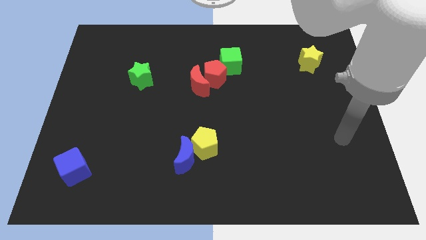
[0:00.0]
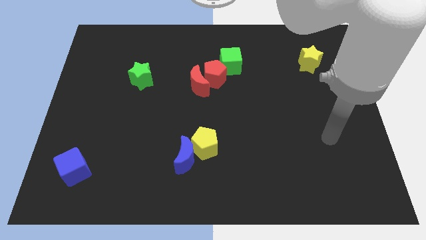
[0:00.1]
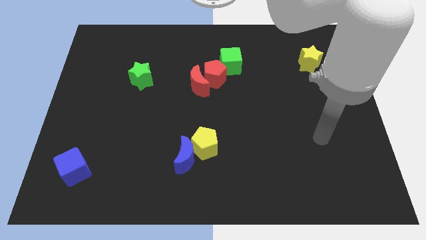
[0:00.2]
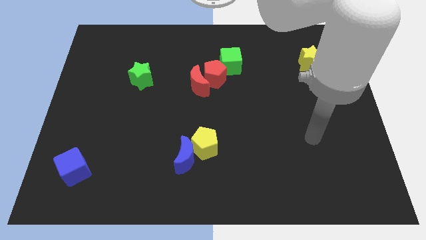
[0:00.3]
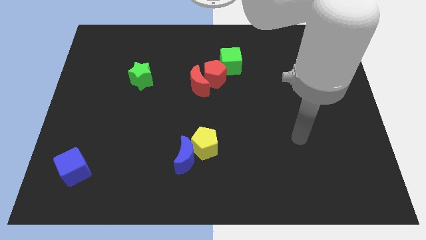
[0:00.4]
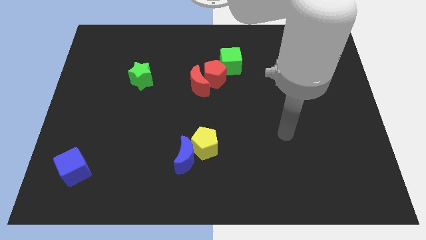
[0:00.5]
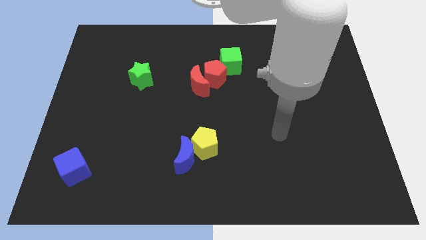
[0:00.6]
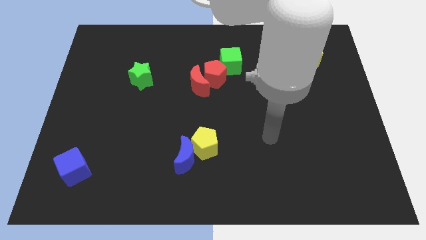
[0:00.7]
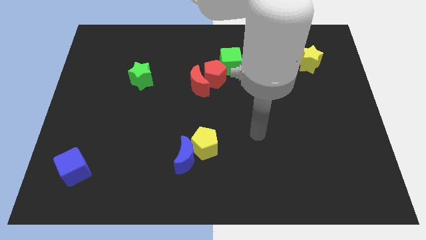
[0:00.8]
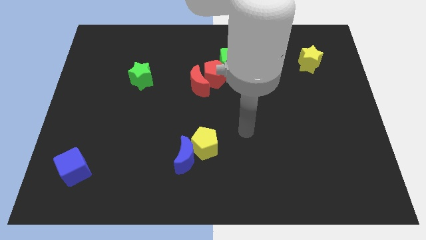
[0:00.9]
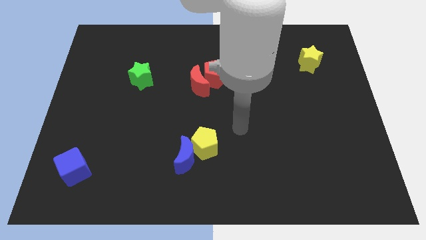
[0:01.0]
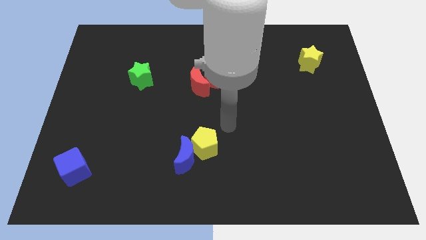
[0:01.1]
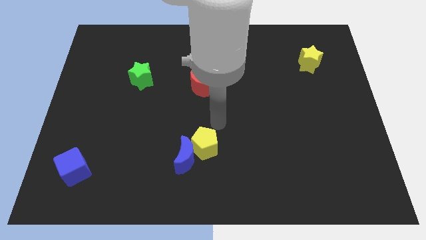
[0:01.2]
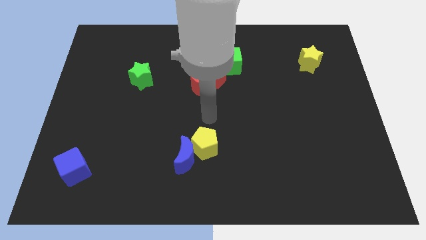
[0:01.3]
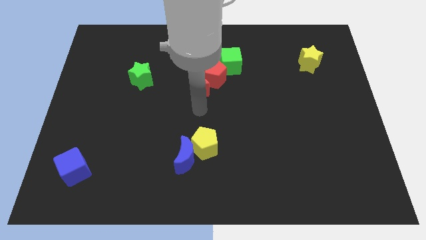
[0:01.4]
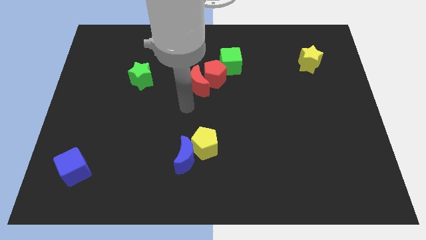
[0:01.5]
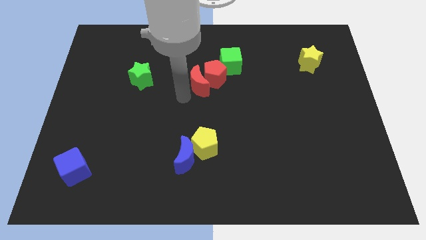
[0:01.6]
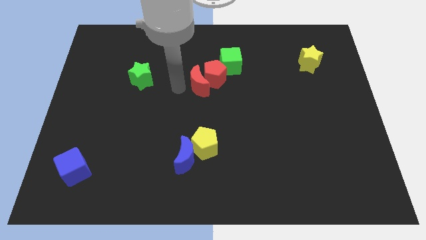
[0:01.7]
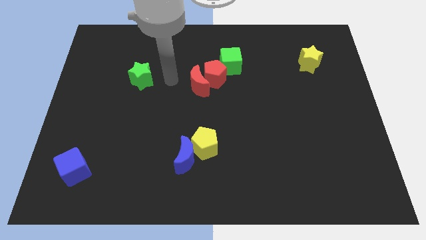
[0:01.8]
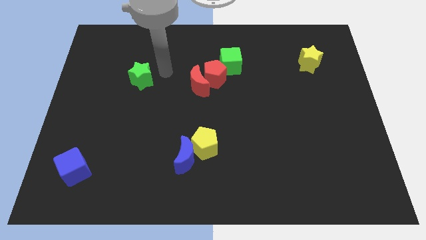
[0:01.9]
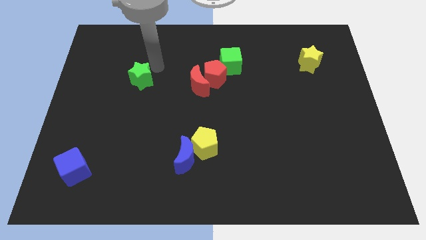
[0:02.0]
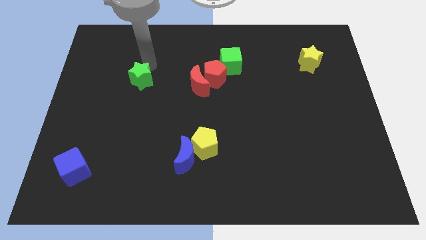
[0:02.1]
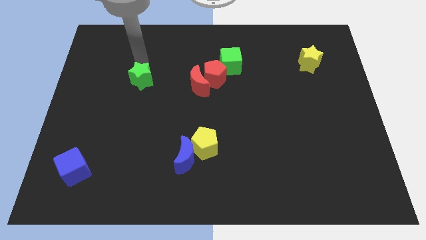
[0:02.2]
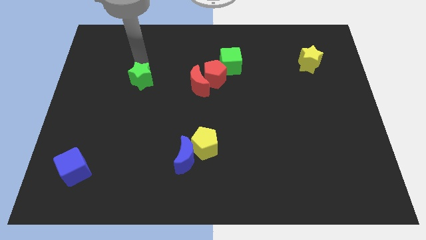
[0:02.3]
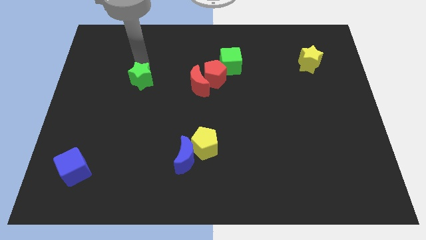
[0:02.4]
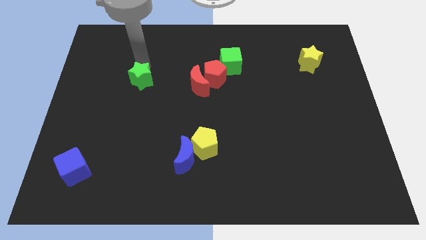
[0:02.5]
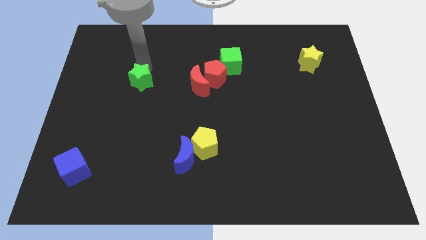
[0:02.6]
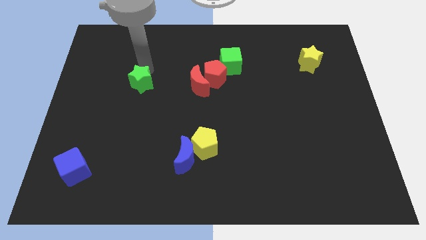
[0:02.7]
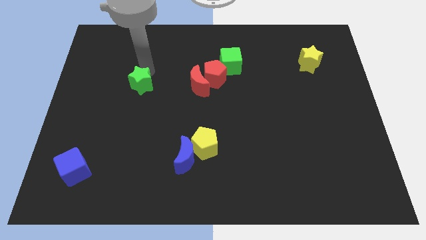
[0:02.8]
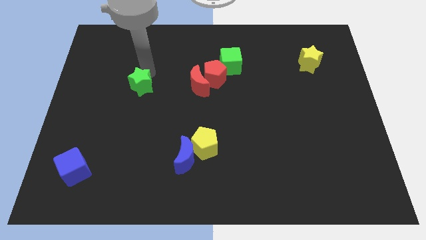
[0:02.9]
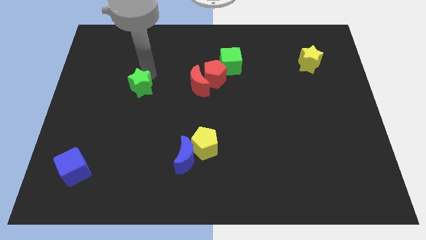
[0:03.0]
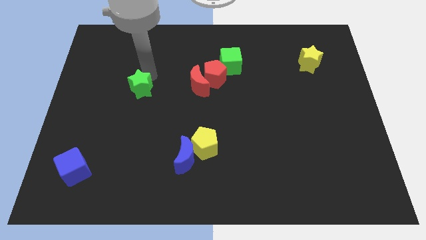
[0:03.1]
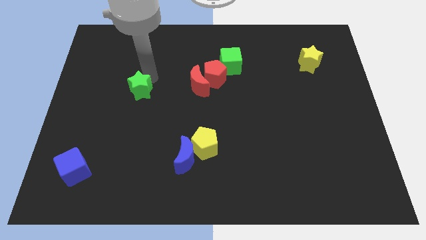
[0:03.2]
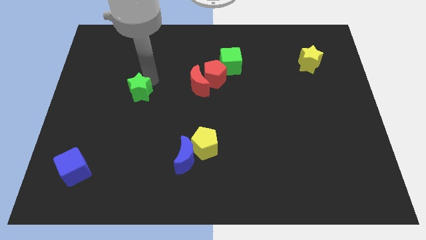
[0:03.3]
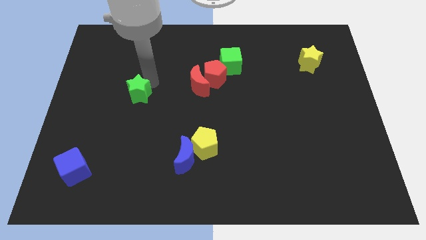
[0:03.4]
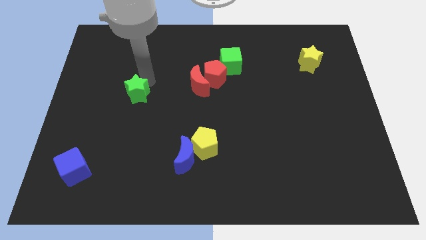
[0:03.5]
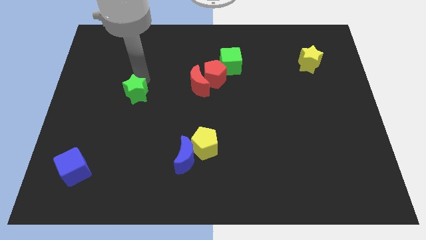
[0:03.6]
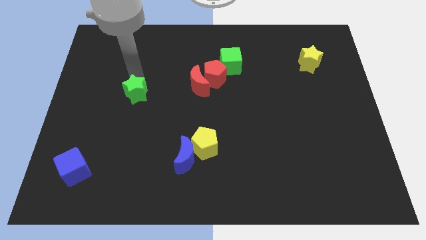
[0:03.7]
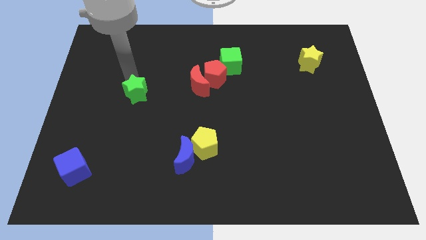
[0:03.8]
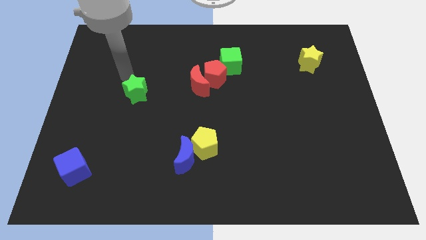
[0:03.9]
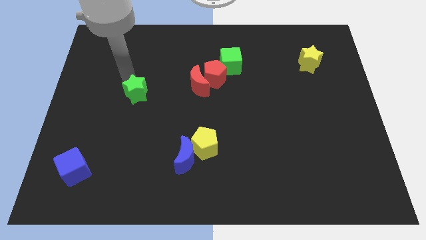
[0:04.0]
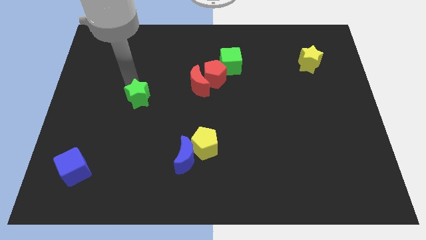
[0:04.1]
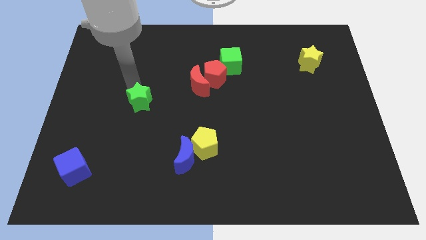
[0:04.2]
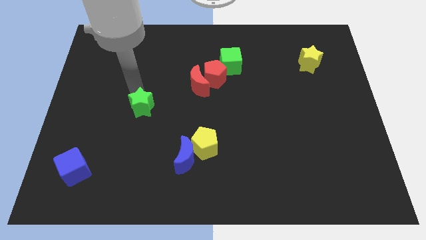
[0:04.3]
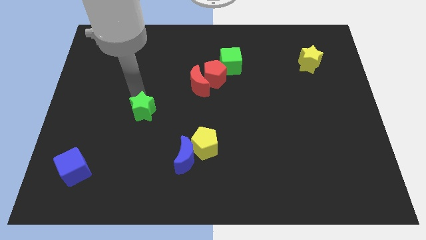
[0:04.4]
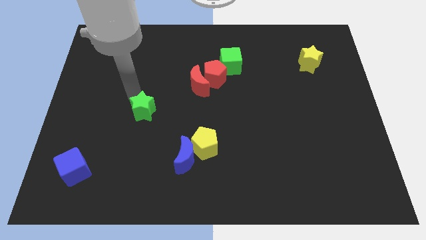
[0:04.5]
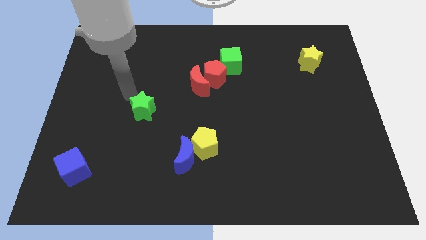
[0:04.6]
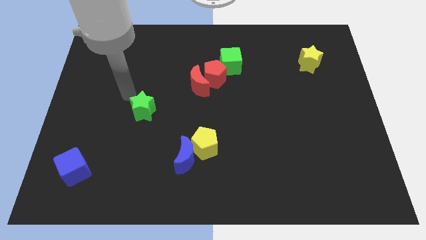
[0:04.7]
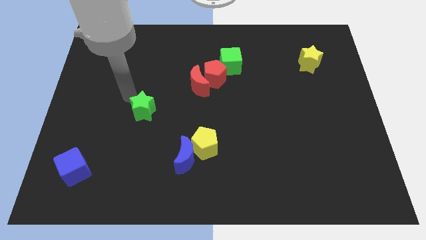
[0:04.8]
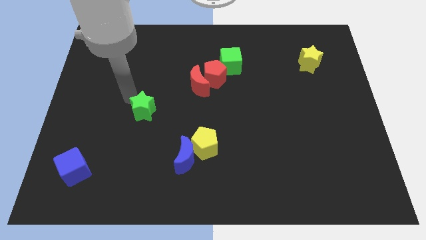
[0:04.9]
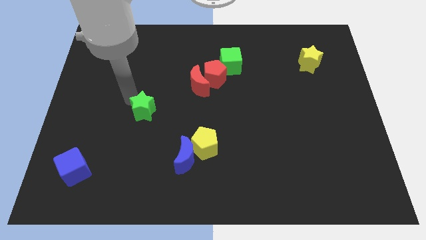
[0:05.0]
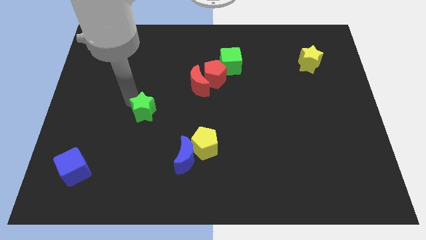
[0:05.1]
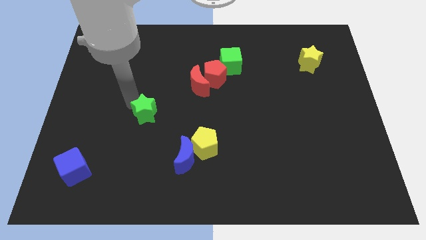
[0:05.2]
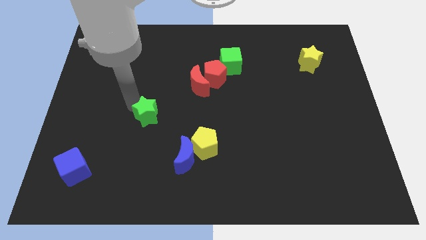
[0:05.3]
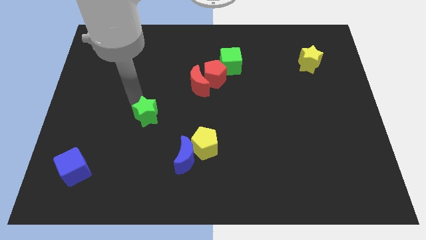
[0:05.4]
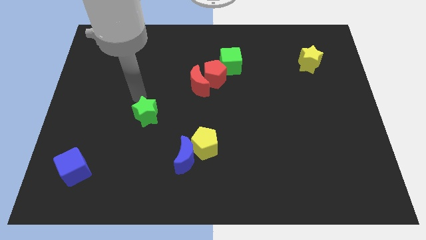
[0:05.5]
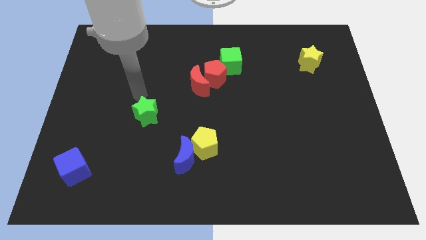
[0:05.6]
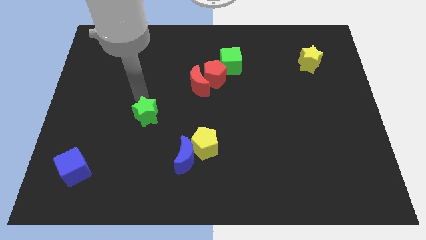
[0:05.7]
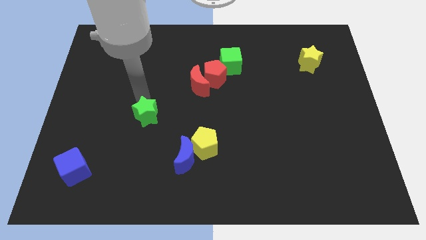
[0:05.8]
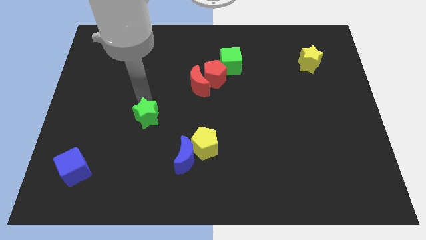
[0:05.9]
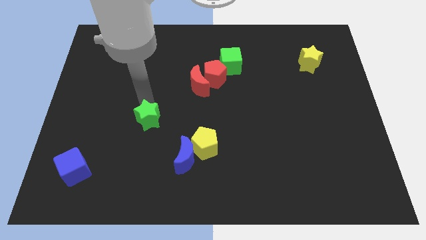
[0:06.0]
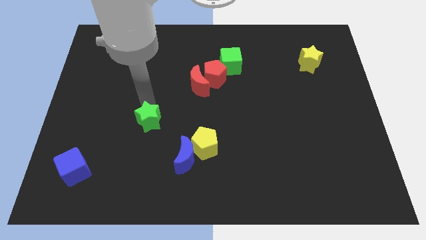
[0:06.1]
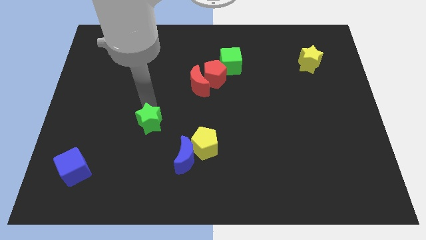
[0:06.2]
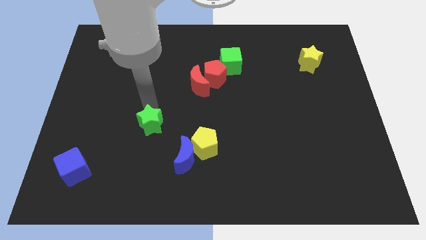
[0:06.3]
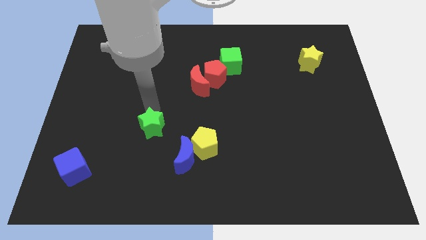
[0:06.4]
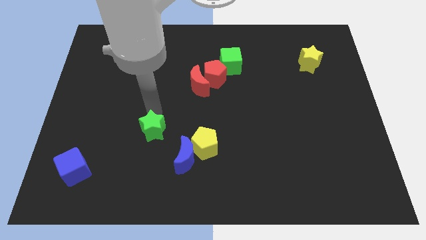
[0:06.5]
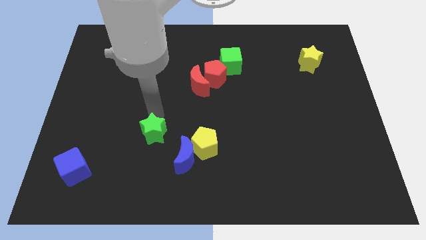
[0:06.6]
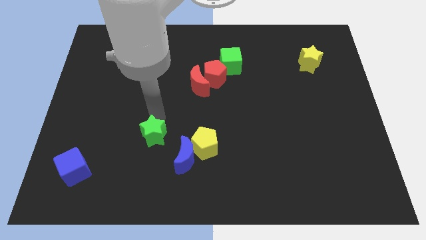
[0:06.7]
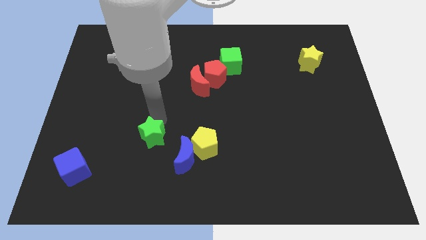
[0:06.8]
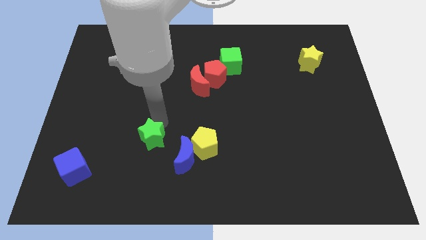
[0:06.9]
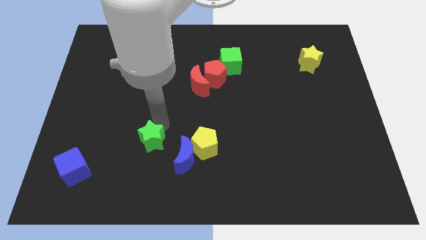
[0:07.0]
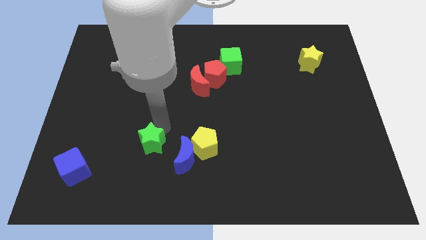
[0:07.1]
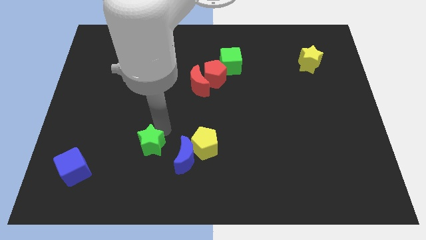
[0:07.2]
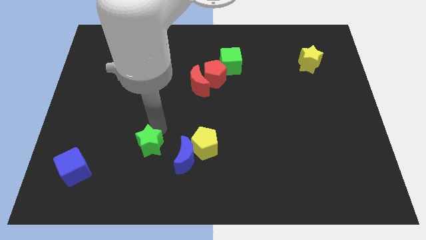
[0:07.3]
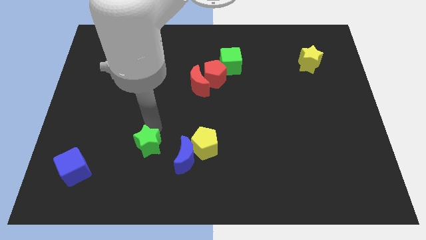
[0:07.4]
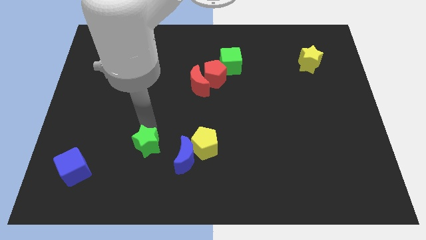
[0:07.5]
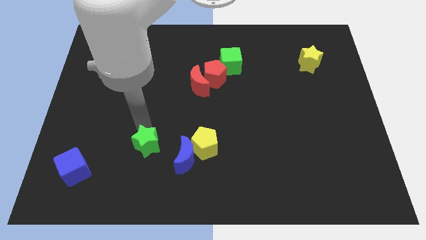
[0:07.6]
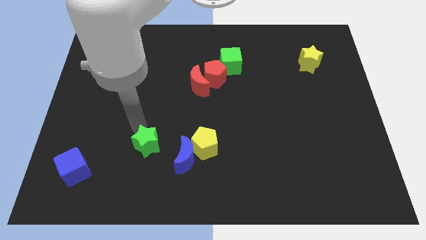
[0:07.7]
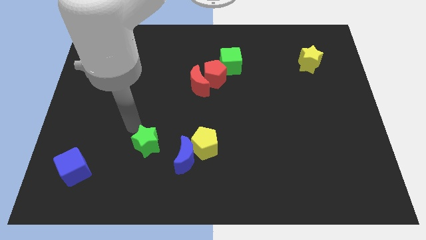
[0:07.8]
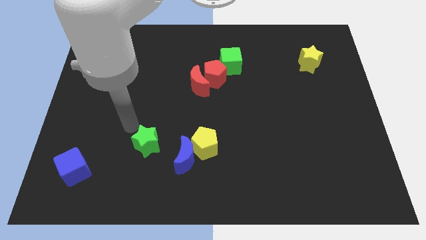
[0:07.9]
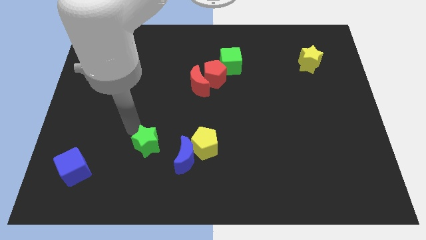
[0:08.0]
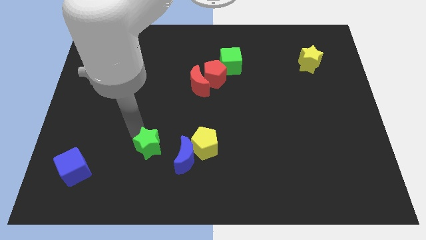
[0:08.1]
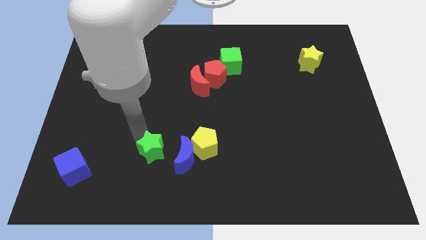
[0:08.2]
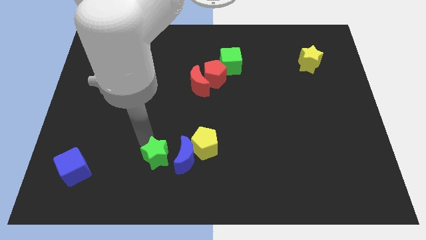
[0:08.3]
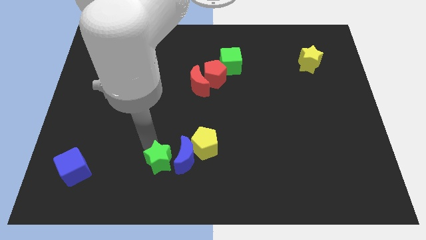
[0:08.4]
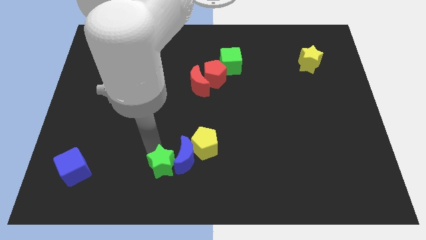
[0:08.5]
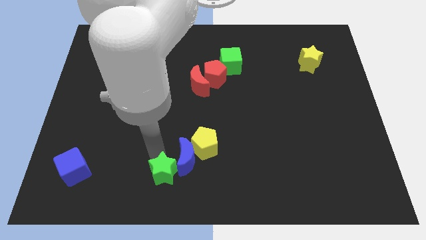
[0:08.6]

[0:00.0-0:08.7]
put the green star to the bottom
